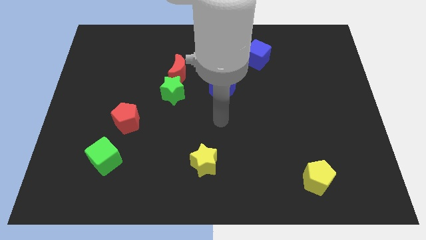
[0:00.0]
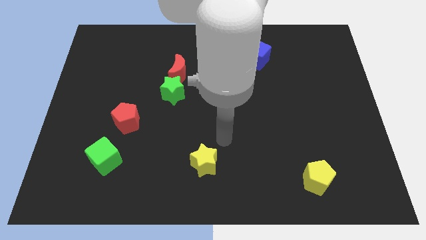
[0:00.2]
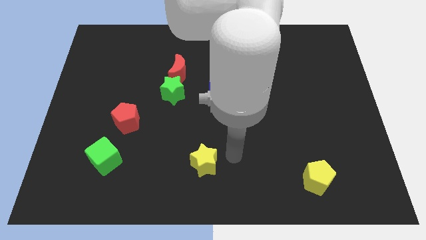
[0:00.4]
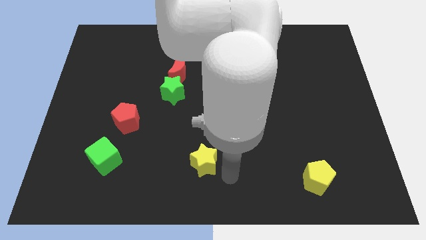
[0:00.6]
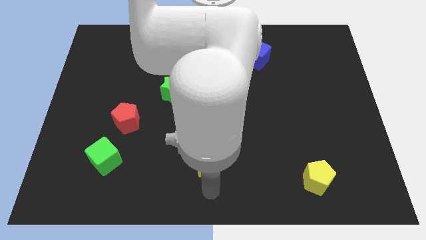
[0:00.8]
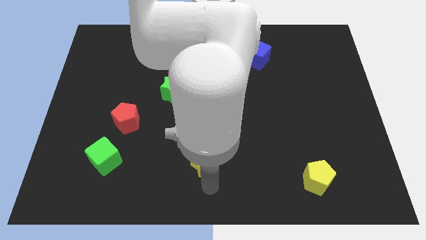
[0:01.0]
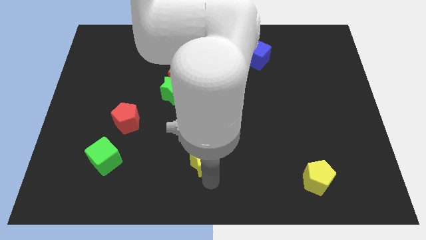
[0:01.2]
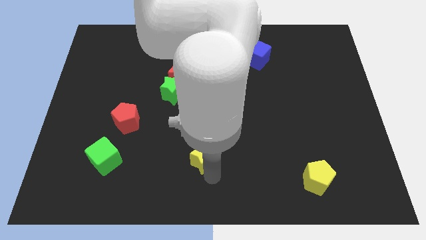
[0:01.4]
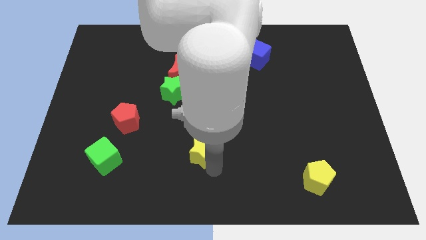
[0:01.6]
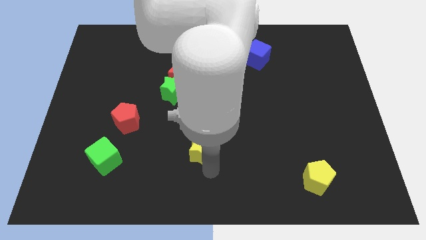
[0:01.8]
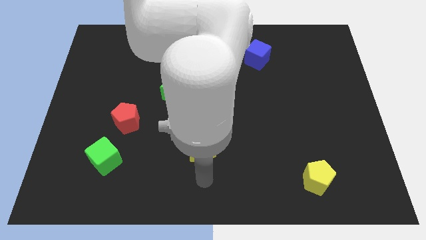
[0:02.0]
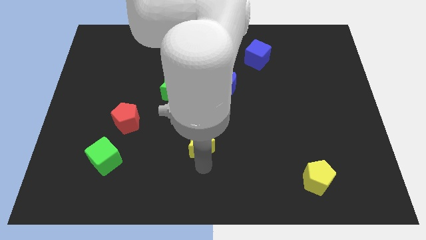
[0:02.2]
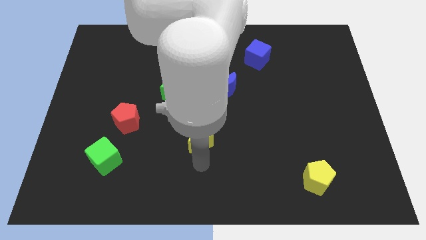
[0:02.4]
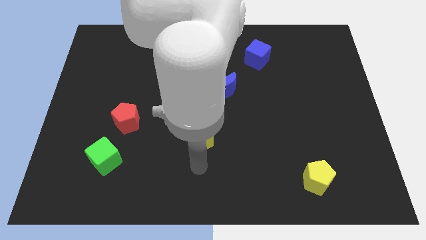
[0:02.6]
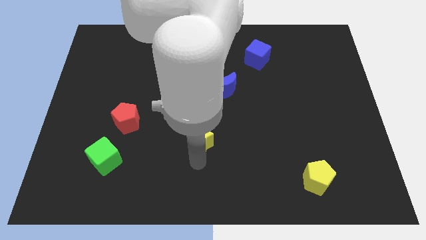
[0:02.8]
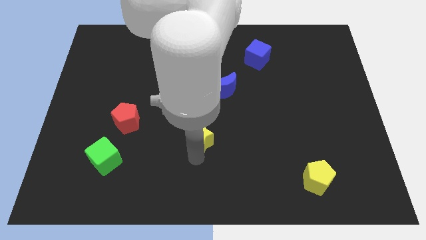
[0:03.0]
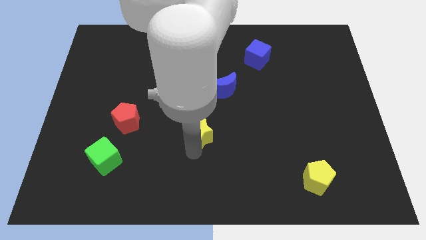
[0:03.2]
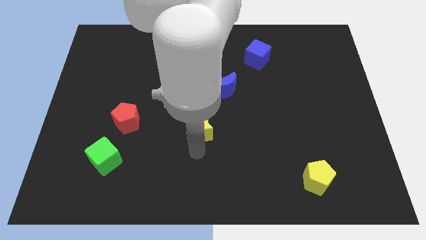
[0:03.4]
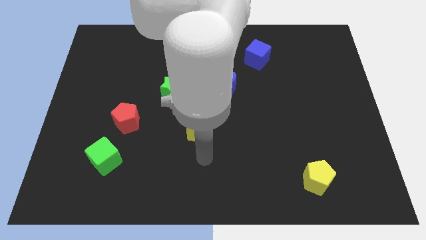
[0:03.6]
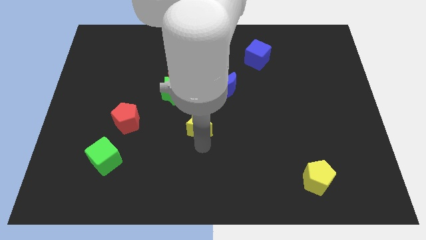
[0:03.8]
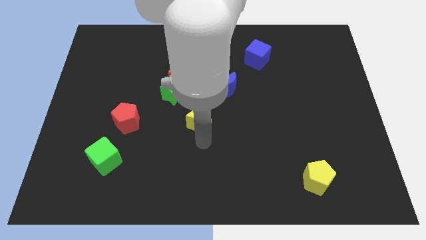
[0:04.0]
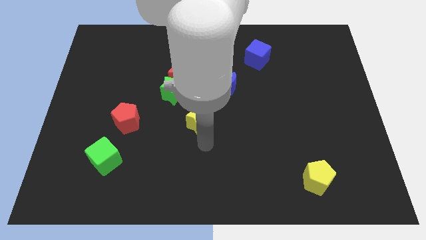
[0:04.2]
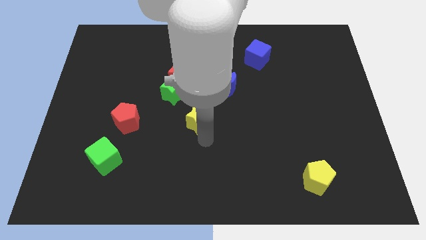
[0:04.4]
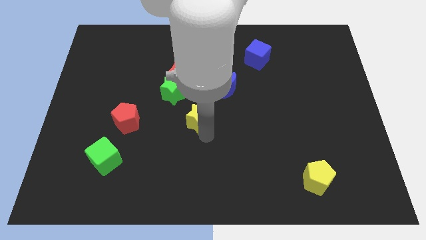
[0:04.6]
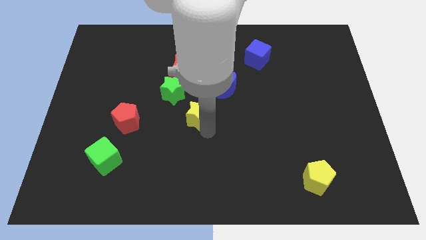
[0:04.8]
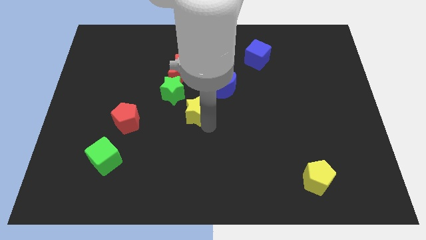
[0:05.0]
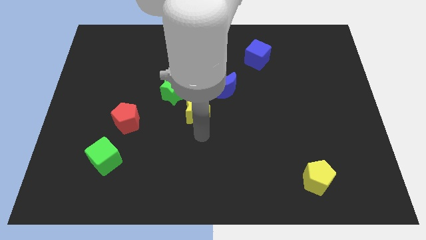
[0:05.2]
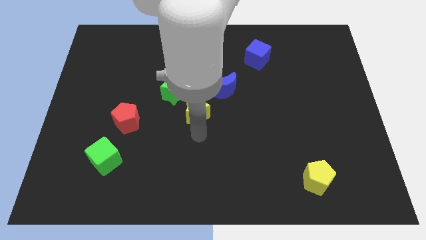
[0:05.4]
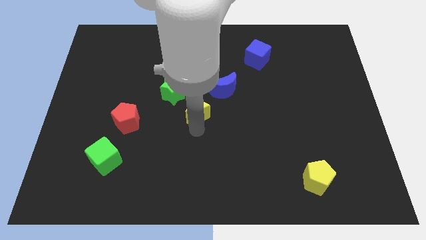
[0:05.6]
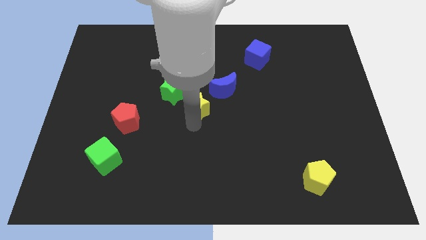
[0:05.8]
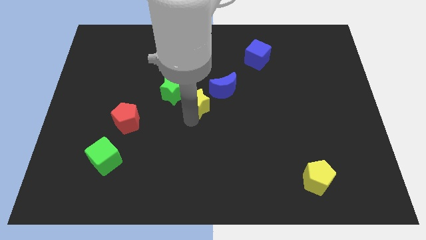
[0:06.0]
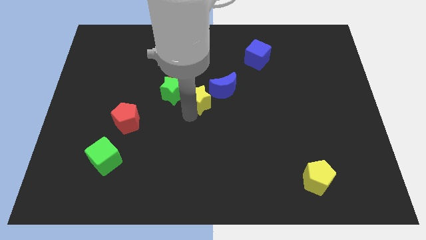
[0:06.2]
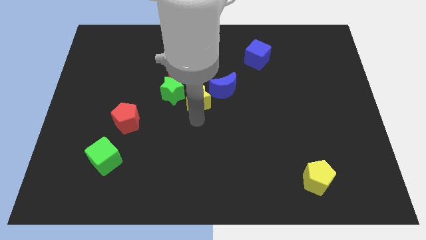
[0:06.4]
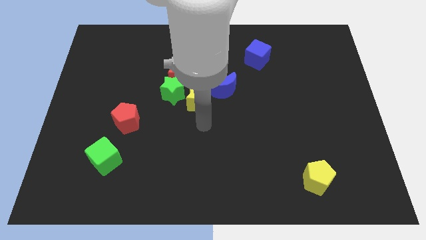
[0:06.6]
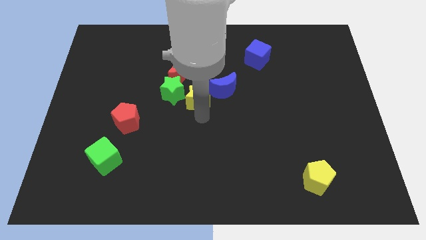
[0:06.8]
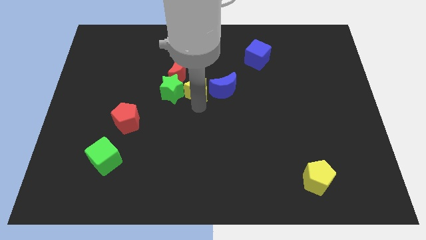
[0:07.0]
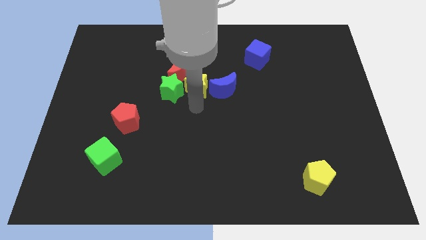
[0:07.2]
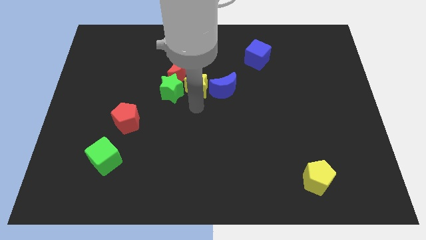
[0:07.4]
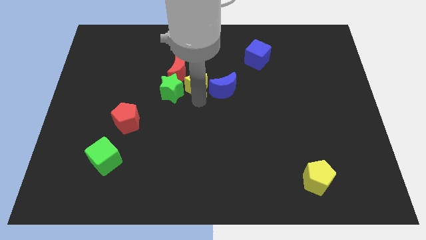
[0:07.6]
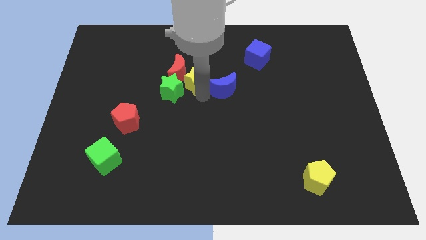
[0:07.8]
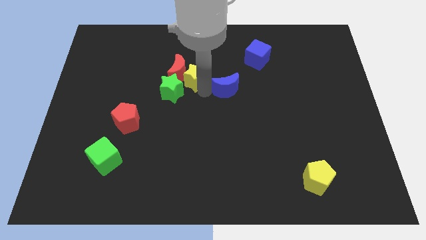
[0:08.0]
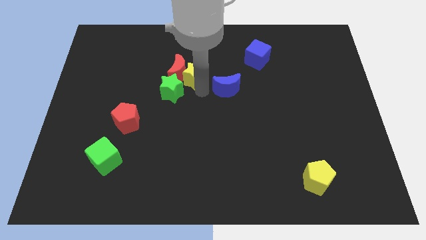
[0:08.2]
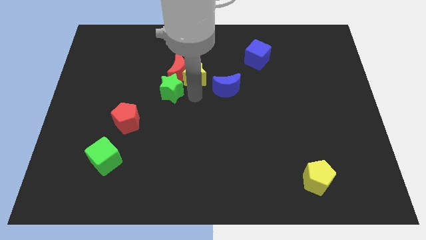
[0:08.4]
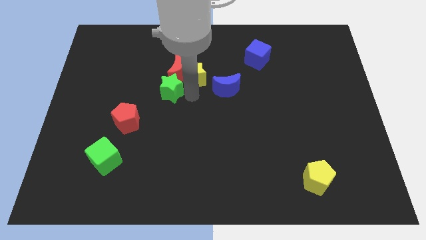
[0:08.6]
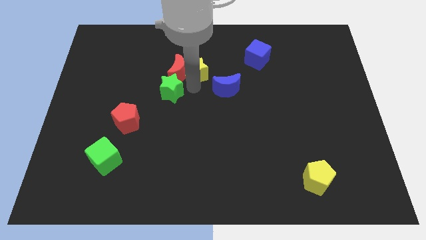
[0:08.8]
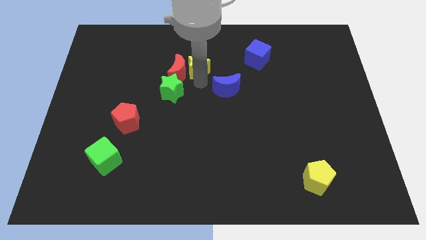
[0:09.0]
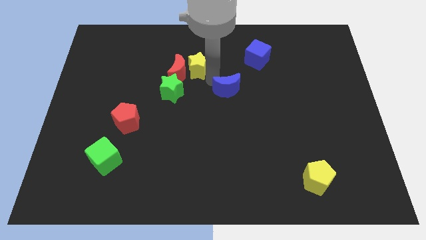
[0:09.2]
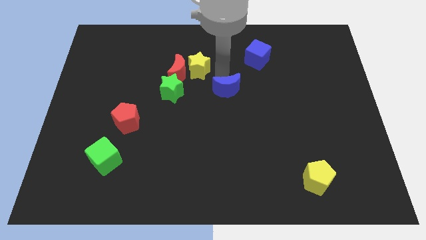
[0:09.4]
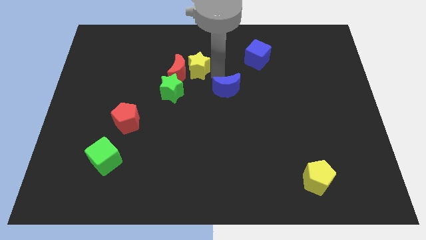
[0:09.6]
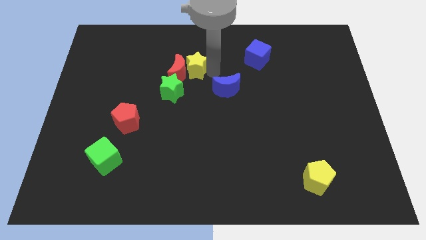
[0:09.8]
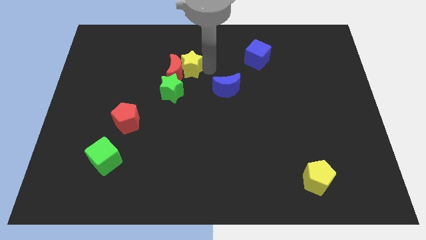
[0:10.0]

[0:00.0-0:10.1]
slide the yellow star above the green star

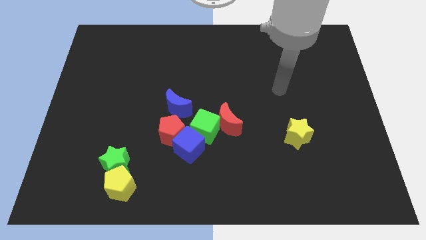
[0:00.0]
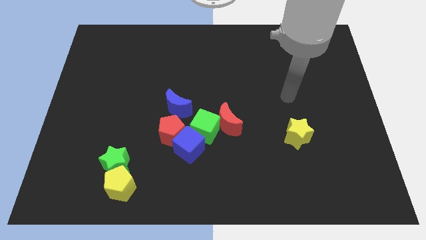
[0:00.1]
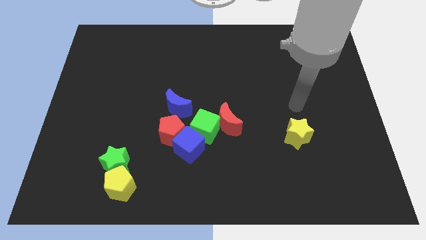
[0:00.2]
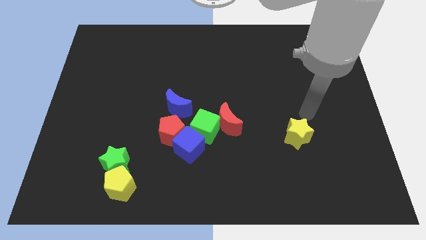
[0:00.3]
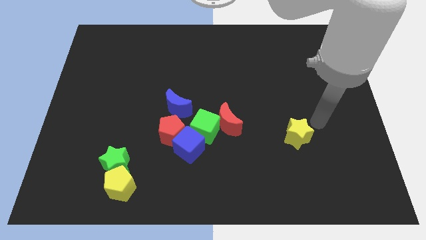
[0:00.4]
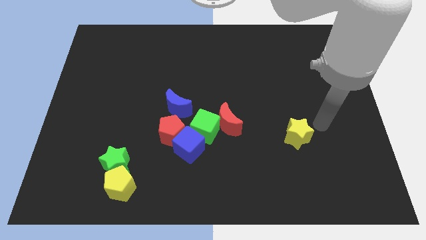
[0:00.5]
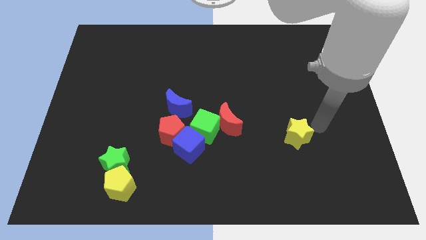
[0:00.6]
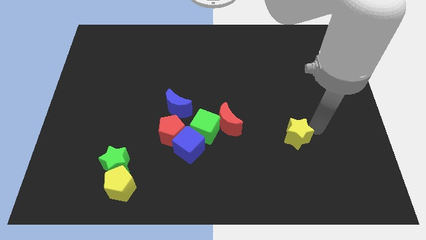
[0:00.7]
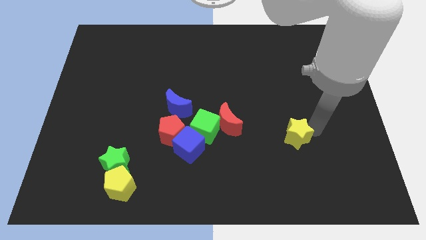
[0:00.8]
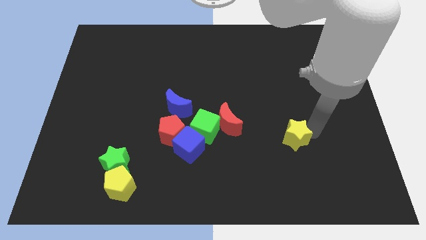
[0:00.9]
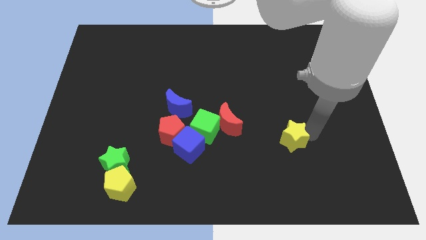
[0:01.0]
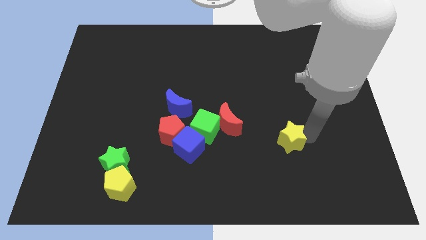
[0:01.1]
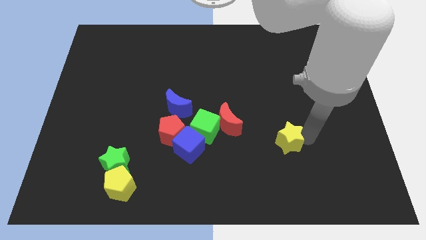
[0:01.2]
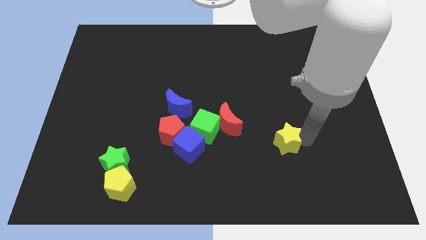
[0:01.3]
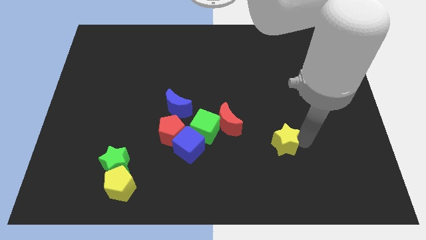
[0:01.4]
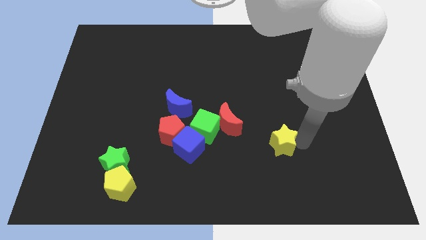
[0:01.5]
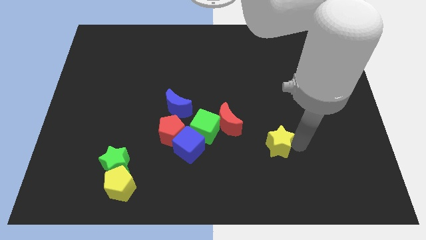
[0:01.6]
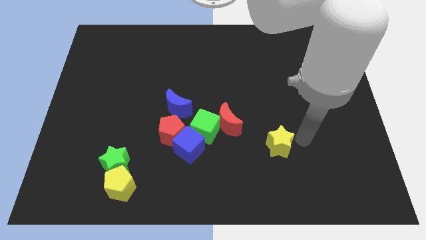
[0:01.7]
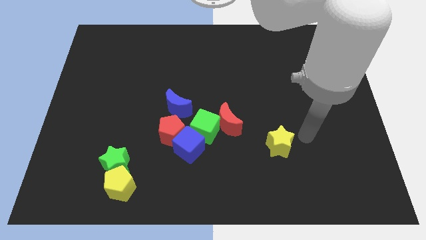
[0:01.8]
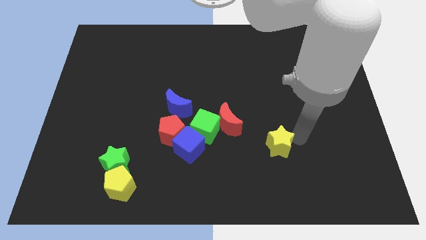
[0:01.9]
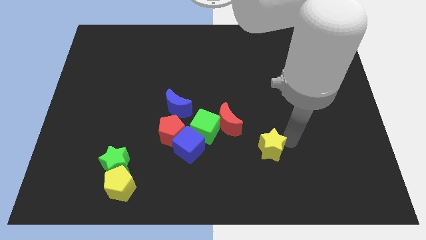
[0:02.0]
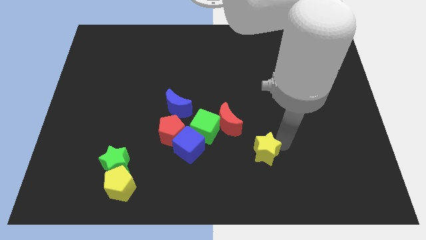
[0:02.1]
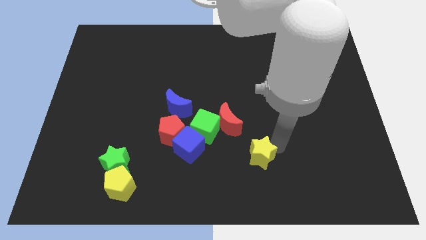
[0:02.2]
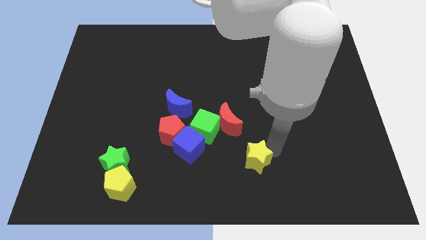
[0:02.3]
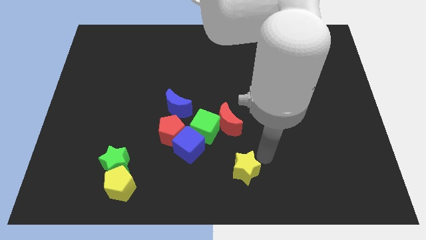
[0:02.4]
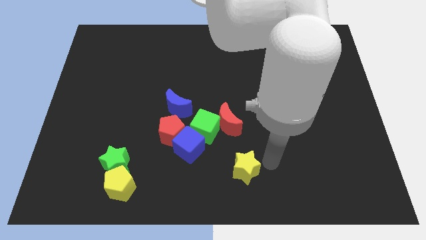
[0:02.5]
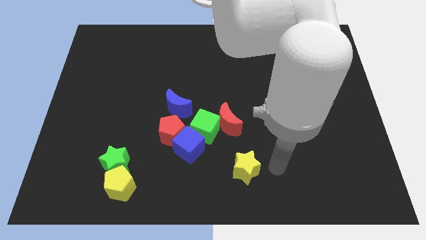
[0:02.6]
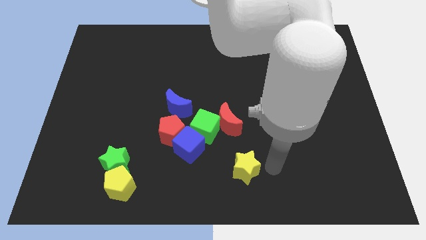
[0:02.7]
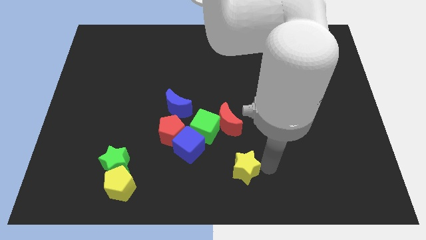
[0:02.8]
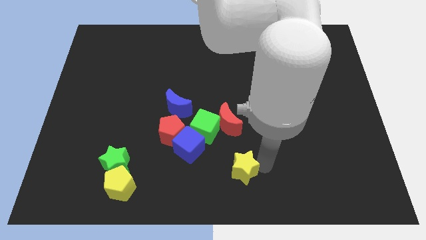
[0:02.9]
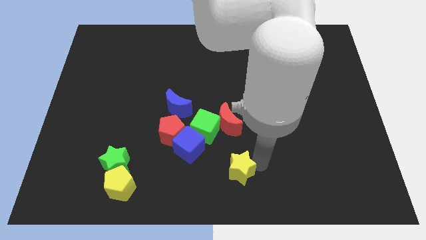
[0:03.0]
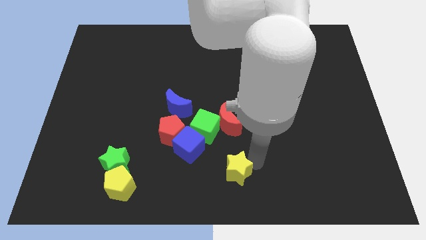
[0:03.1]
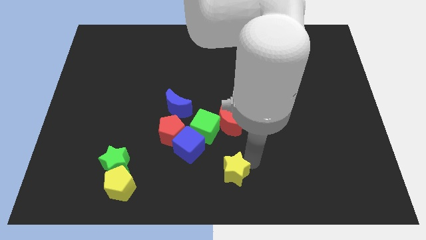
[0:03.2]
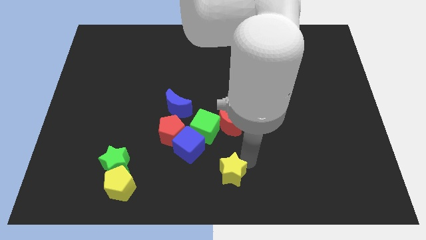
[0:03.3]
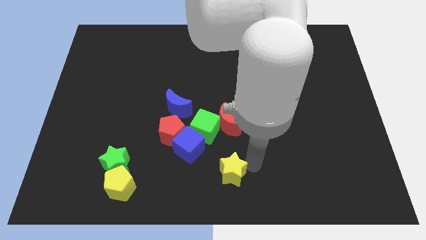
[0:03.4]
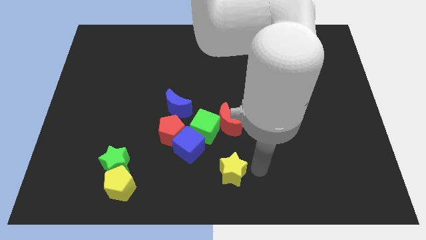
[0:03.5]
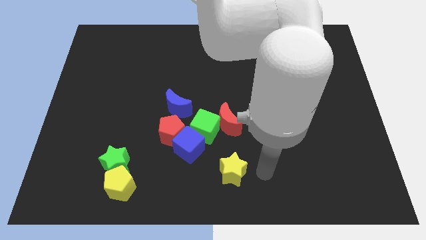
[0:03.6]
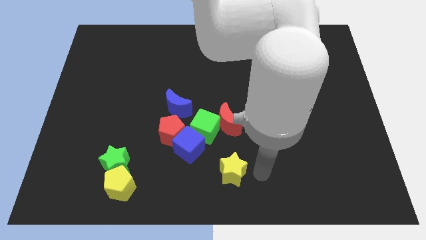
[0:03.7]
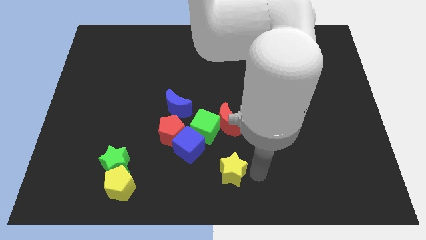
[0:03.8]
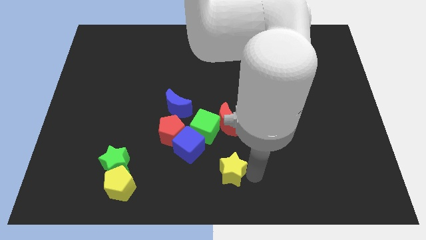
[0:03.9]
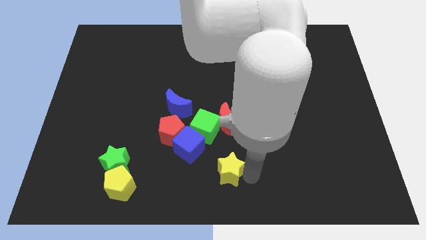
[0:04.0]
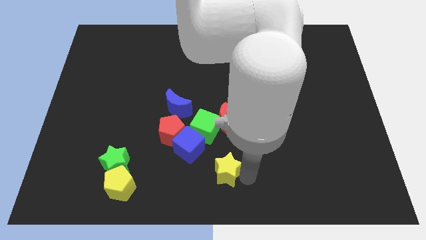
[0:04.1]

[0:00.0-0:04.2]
push the yellow star below the green cube
